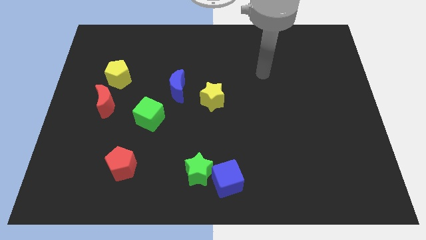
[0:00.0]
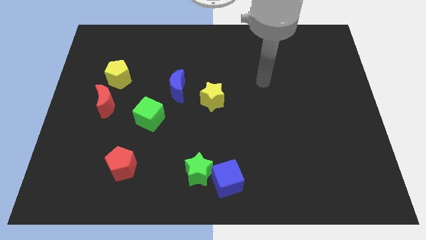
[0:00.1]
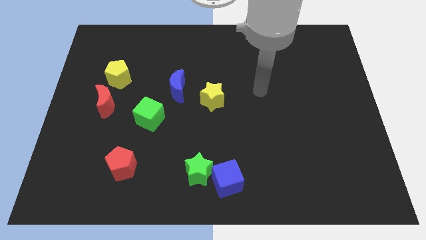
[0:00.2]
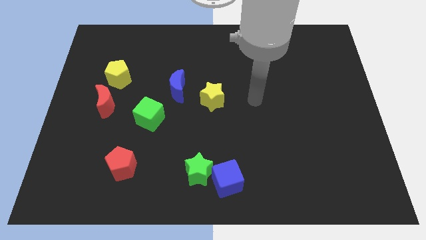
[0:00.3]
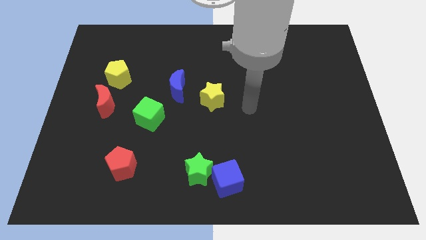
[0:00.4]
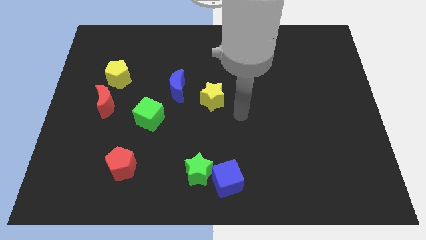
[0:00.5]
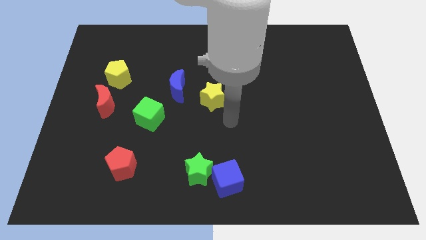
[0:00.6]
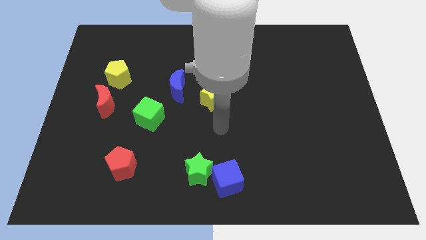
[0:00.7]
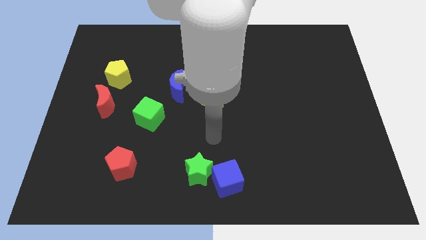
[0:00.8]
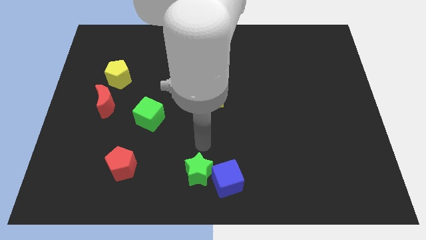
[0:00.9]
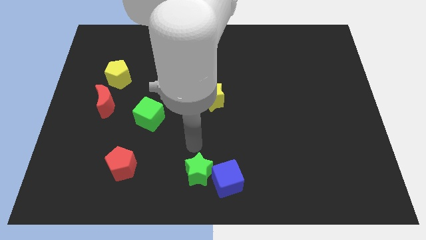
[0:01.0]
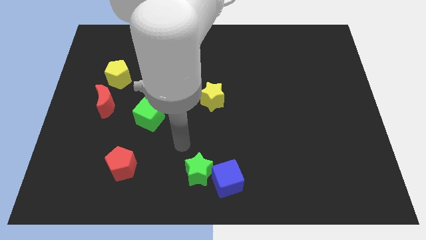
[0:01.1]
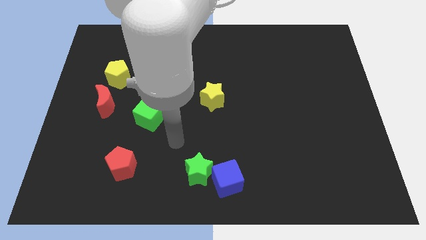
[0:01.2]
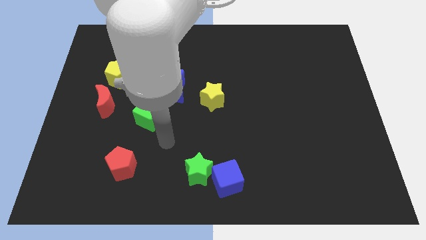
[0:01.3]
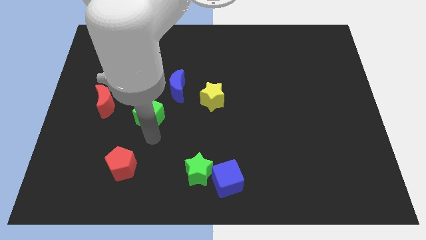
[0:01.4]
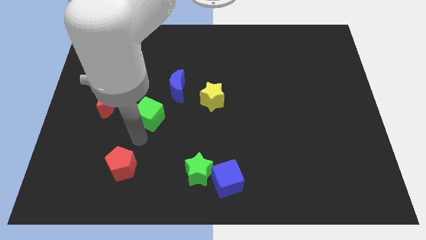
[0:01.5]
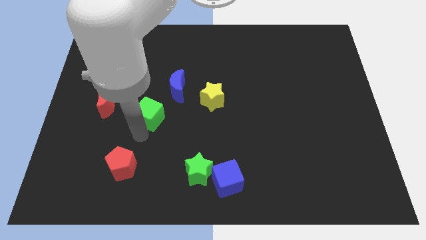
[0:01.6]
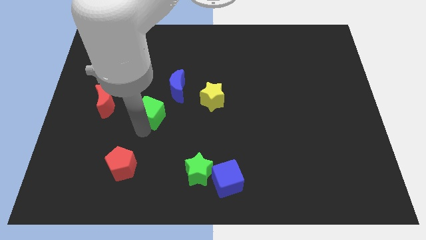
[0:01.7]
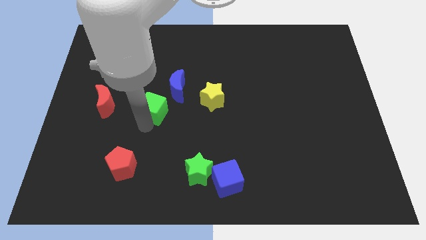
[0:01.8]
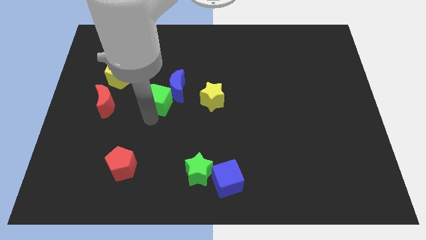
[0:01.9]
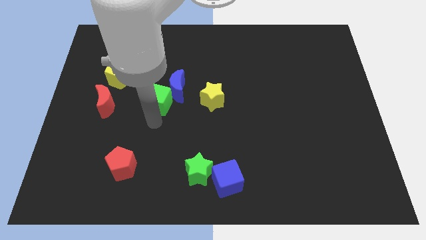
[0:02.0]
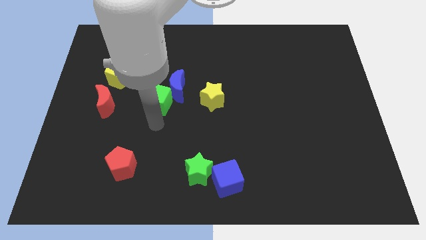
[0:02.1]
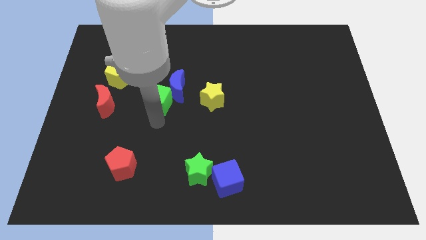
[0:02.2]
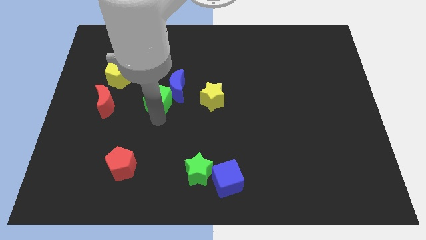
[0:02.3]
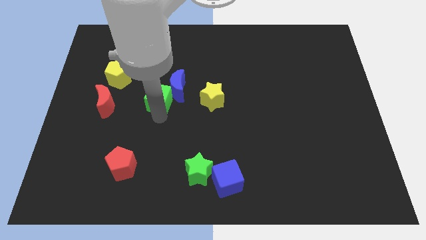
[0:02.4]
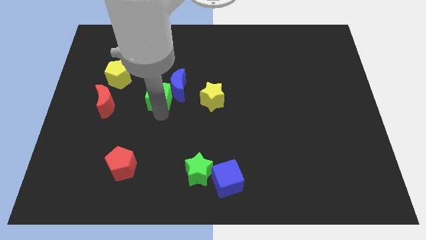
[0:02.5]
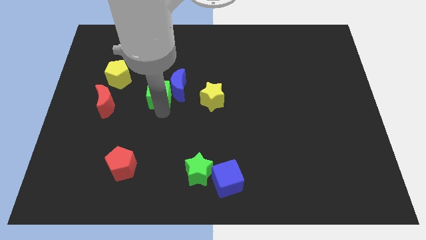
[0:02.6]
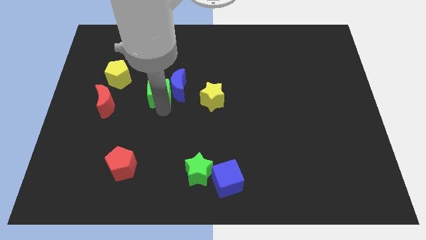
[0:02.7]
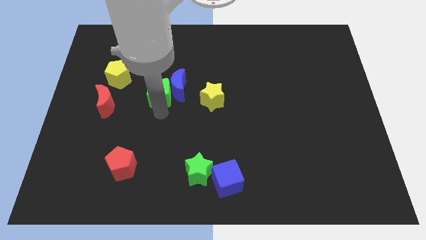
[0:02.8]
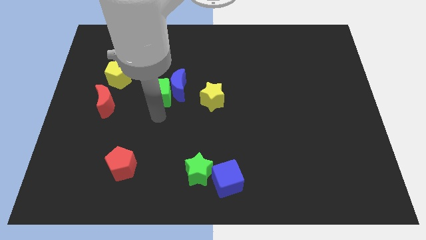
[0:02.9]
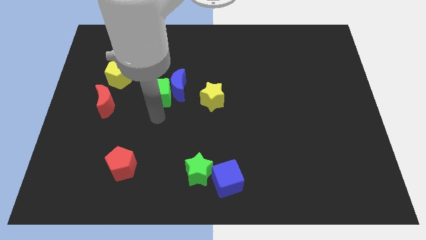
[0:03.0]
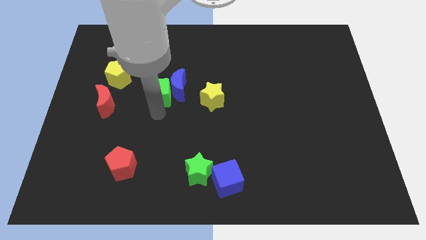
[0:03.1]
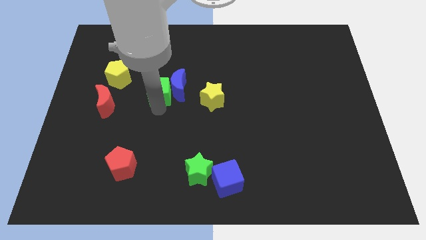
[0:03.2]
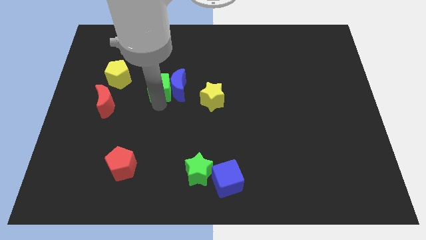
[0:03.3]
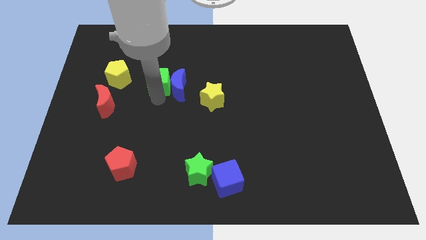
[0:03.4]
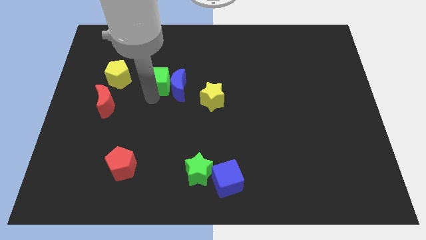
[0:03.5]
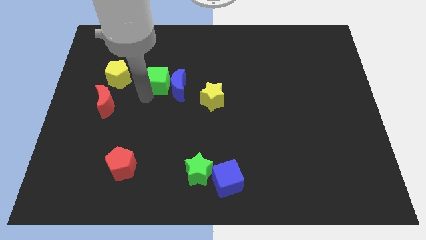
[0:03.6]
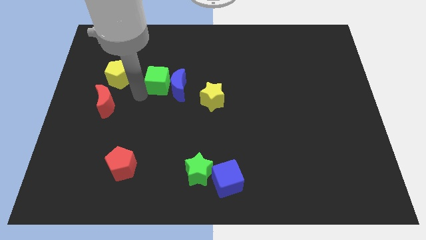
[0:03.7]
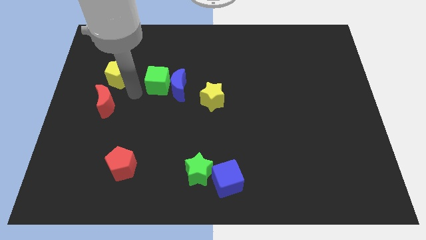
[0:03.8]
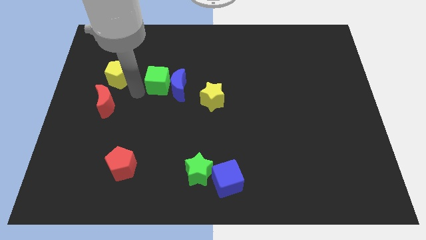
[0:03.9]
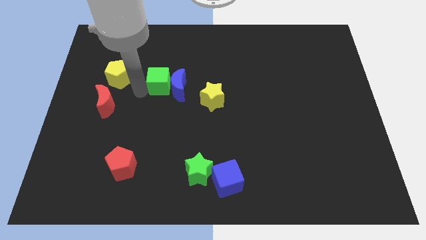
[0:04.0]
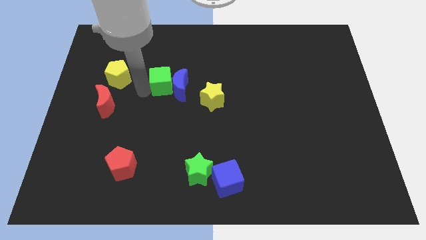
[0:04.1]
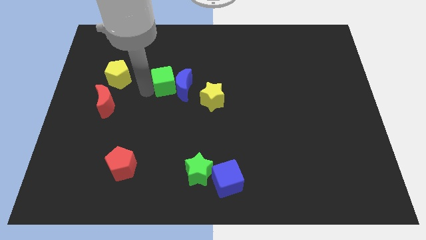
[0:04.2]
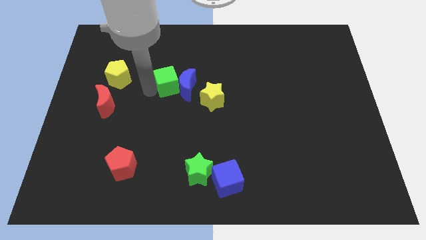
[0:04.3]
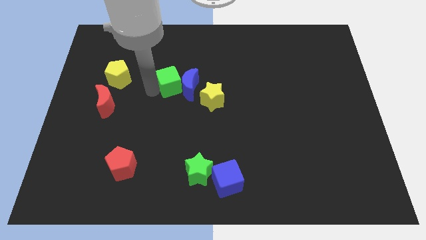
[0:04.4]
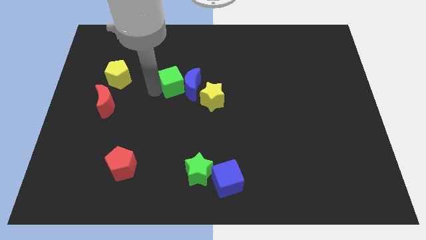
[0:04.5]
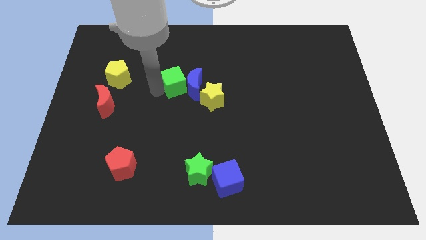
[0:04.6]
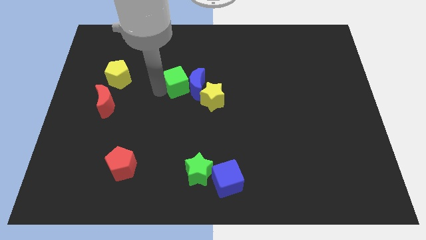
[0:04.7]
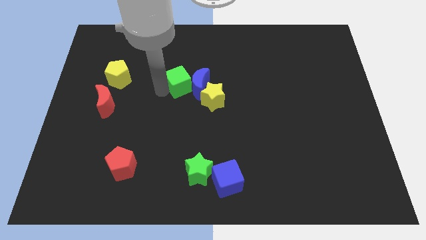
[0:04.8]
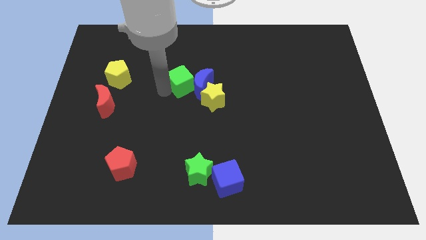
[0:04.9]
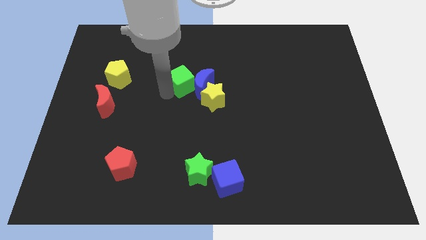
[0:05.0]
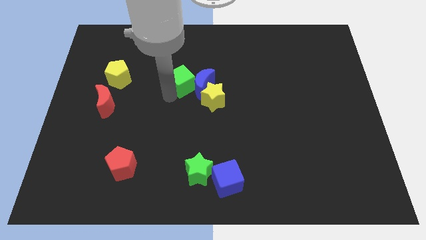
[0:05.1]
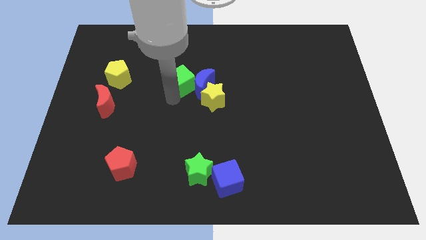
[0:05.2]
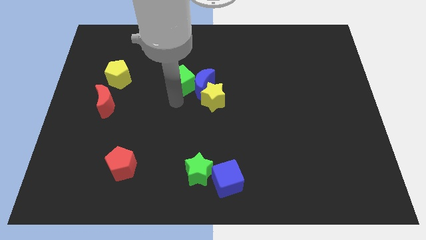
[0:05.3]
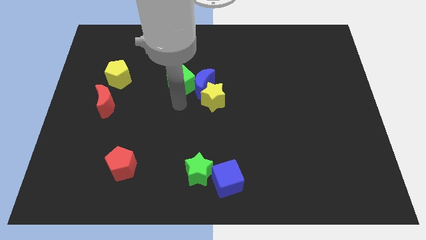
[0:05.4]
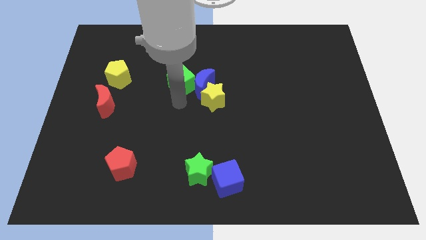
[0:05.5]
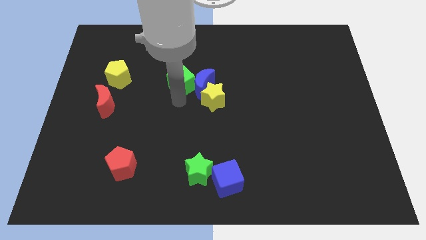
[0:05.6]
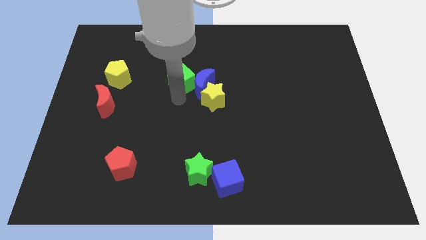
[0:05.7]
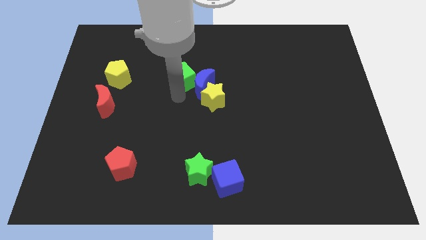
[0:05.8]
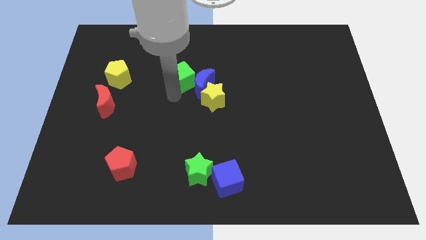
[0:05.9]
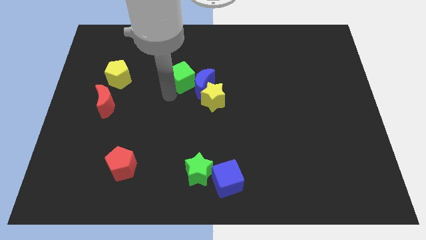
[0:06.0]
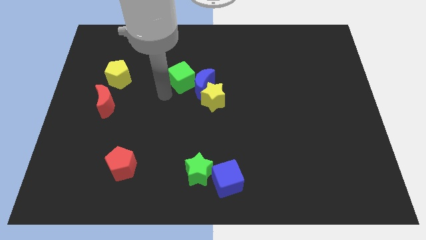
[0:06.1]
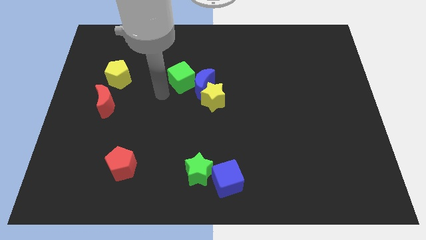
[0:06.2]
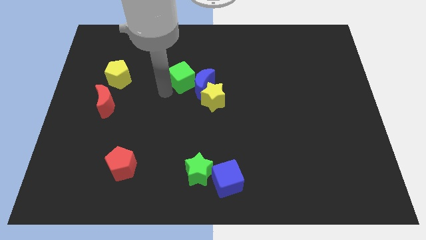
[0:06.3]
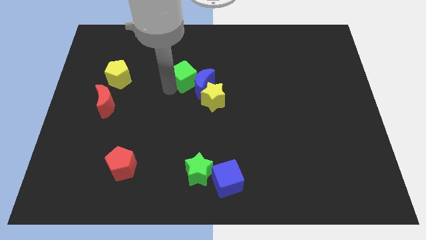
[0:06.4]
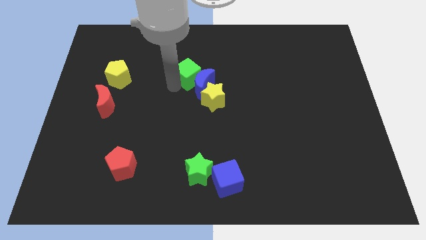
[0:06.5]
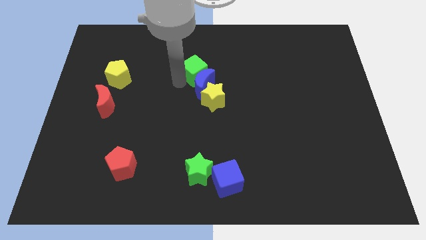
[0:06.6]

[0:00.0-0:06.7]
move the green cube to the top side of the yellow star

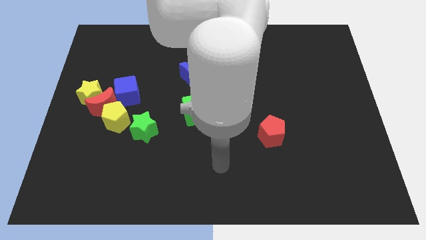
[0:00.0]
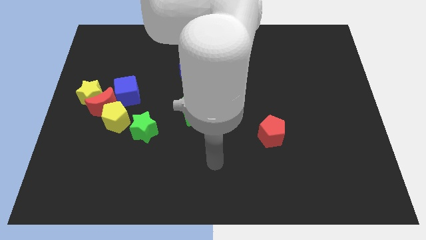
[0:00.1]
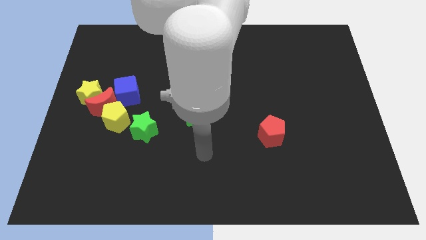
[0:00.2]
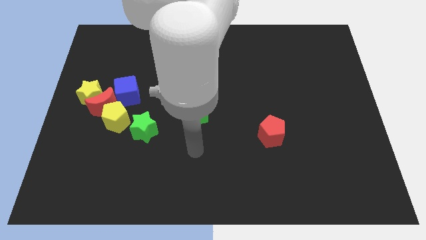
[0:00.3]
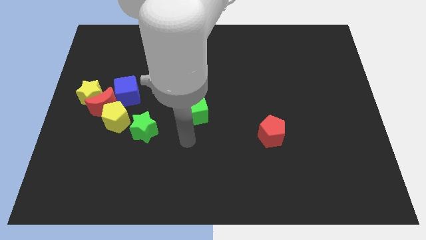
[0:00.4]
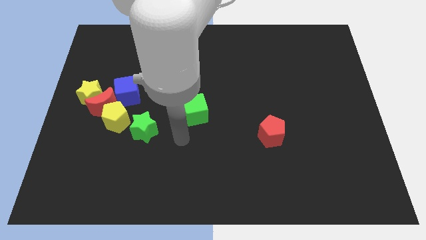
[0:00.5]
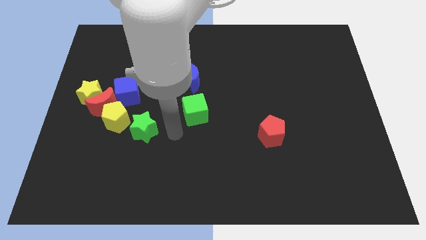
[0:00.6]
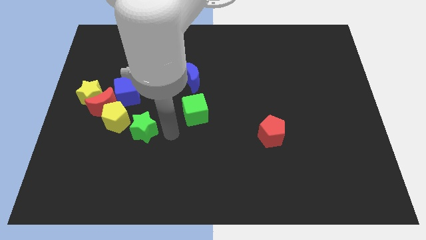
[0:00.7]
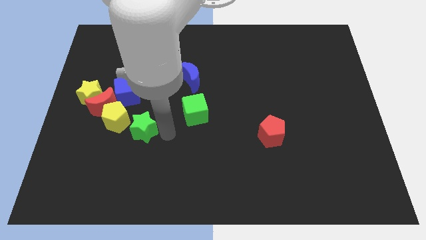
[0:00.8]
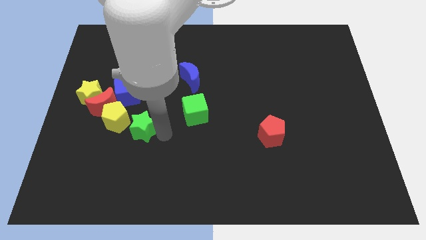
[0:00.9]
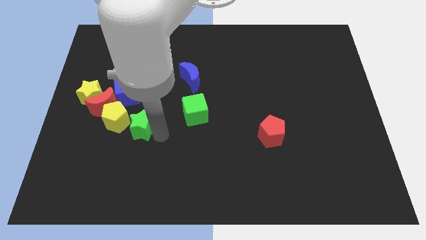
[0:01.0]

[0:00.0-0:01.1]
slide the green star to the bottom side of the blue cube
